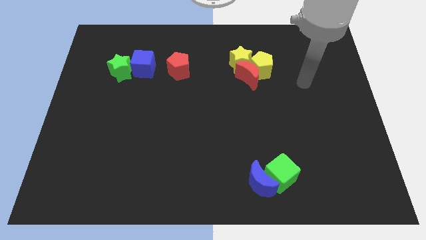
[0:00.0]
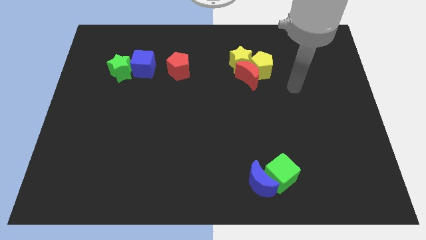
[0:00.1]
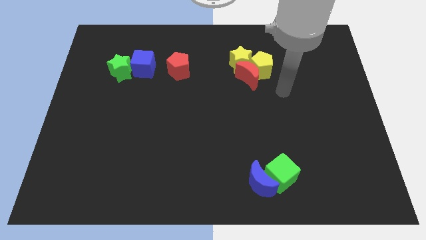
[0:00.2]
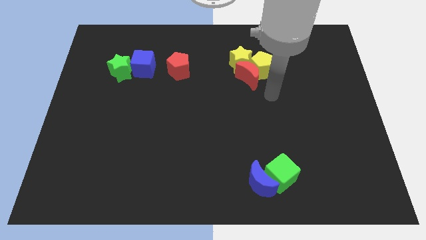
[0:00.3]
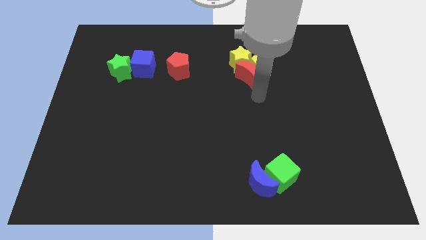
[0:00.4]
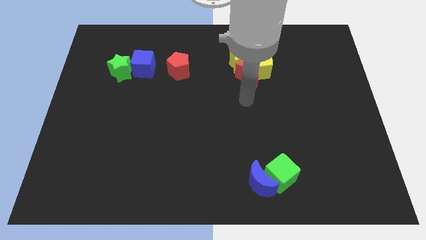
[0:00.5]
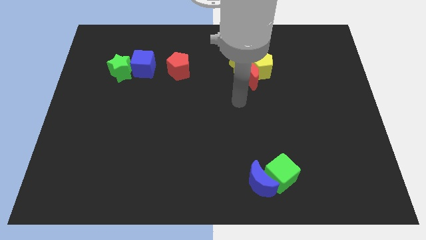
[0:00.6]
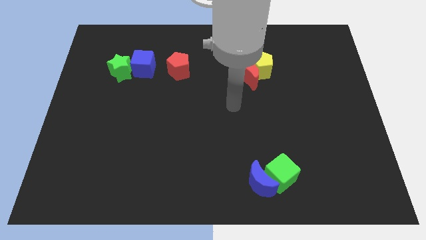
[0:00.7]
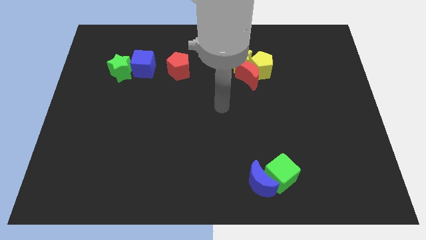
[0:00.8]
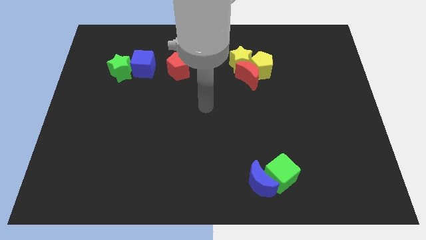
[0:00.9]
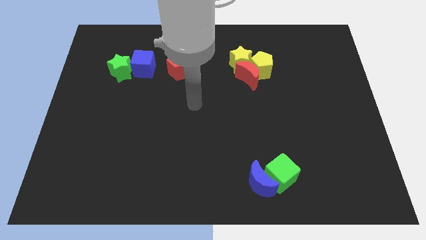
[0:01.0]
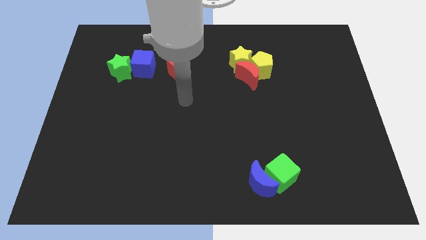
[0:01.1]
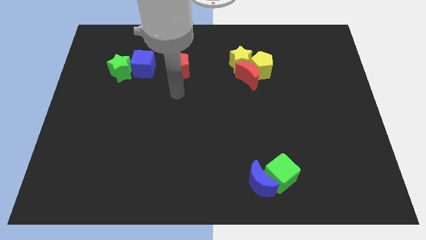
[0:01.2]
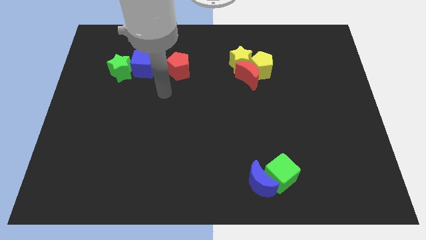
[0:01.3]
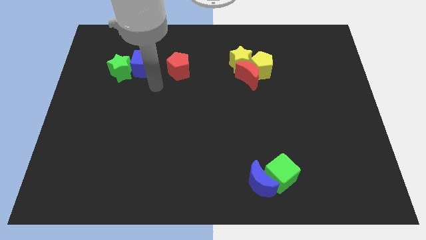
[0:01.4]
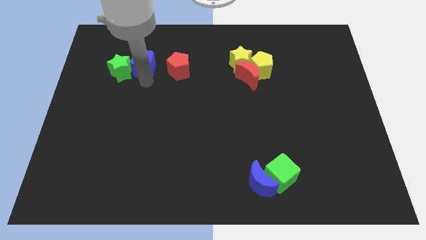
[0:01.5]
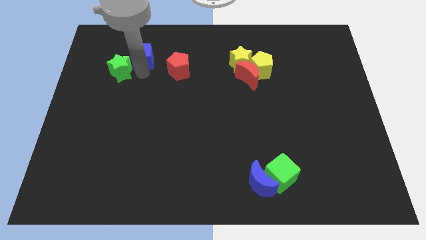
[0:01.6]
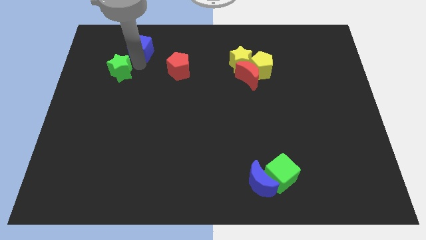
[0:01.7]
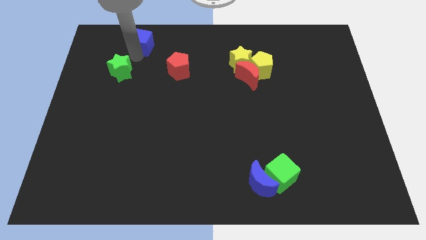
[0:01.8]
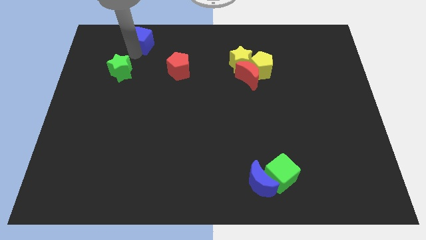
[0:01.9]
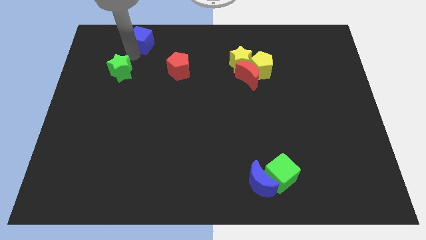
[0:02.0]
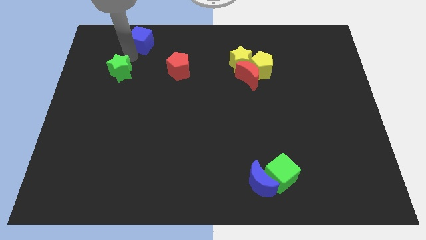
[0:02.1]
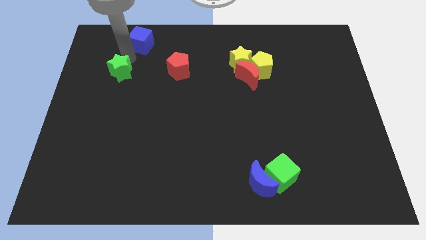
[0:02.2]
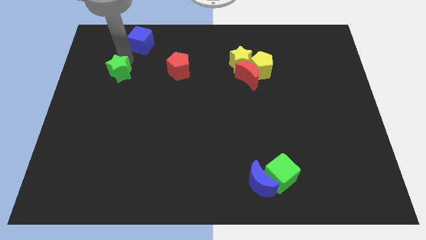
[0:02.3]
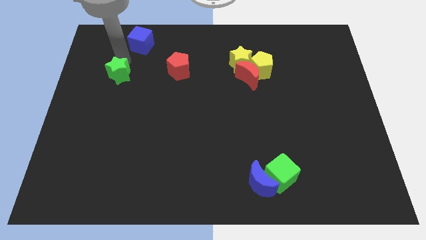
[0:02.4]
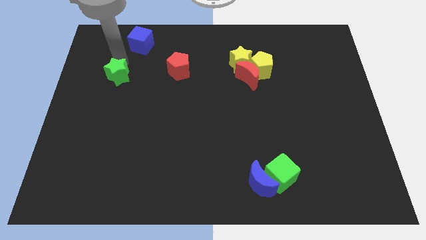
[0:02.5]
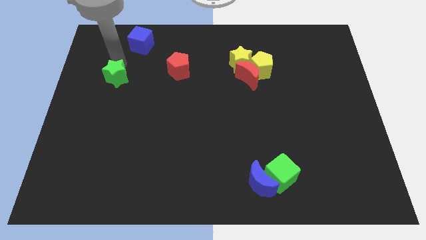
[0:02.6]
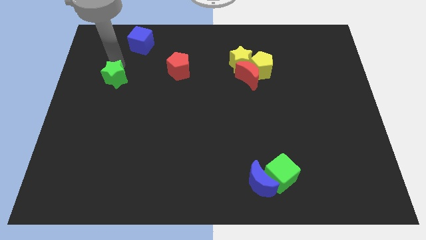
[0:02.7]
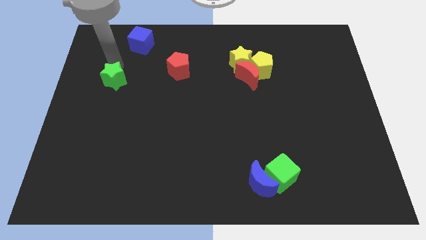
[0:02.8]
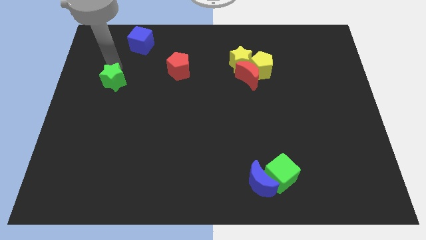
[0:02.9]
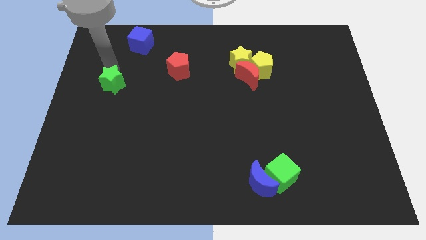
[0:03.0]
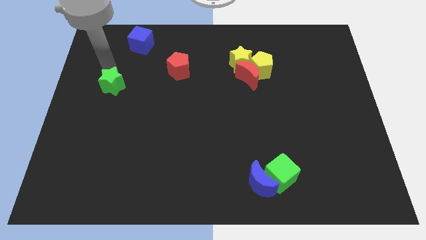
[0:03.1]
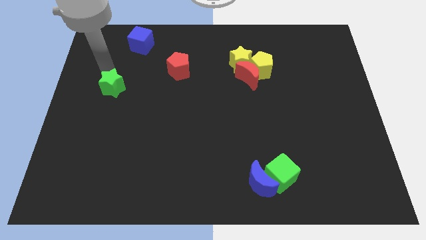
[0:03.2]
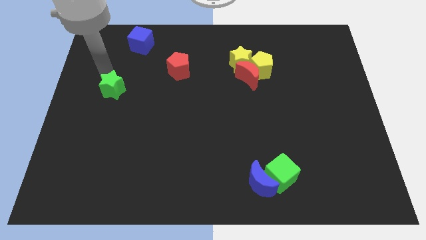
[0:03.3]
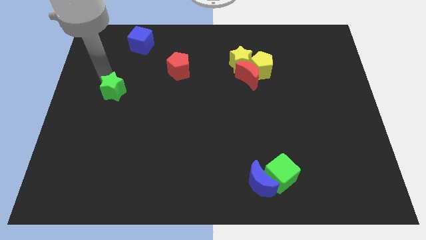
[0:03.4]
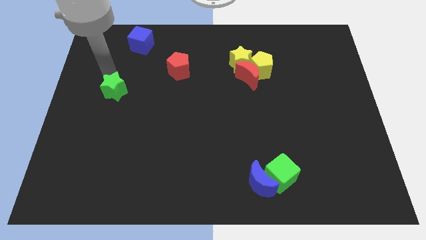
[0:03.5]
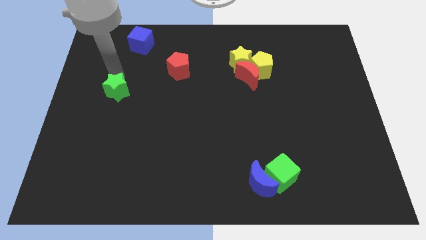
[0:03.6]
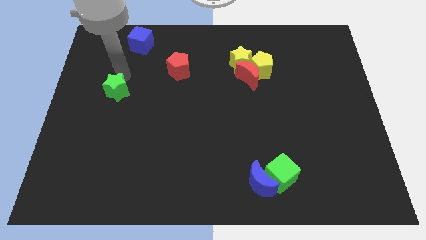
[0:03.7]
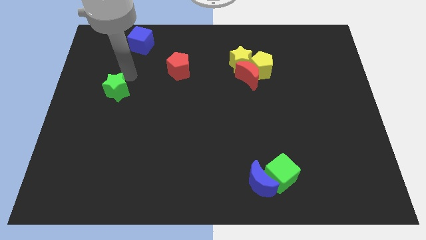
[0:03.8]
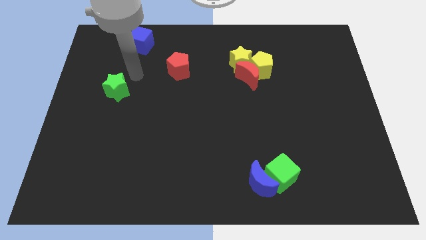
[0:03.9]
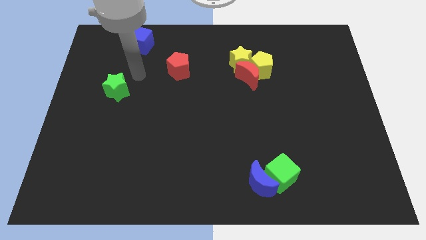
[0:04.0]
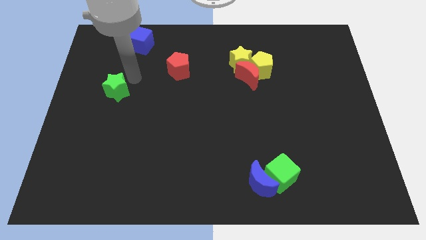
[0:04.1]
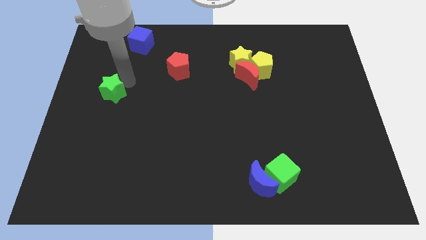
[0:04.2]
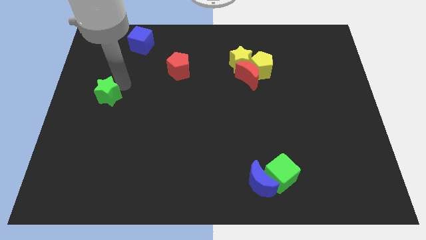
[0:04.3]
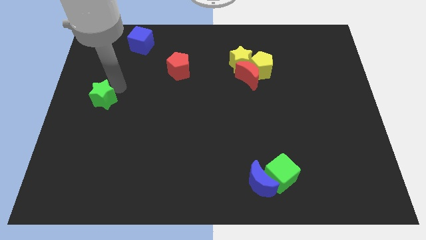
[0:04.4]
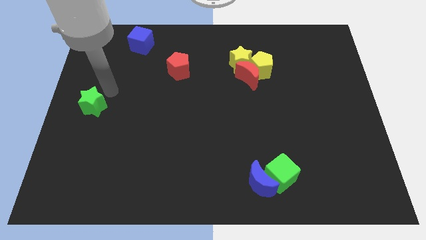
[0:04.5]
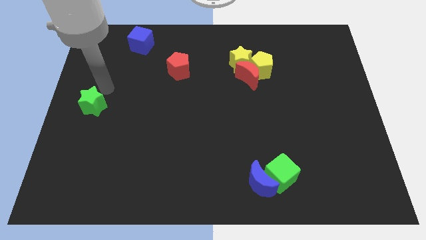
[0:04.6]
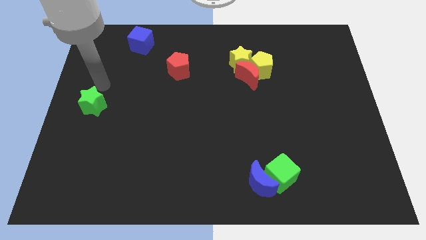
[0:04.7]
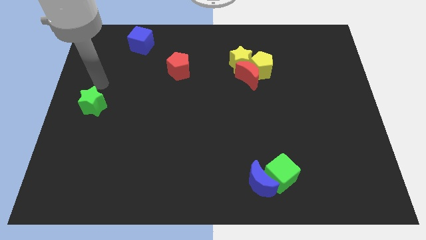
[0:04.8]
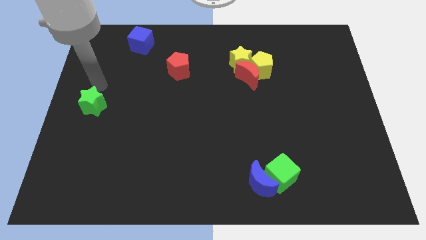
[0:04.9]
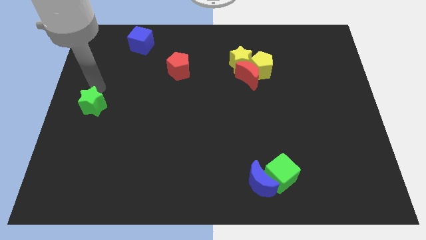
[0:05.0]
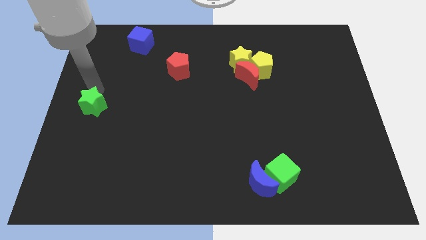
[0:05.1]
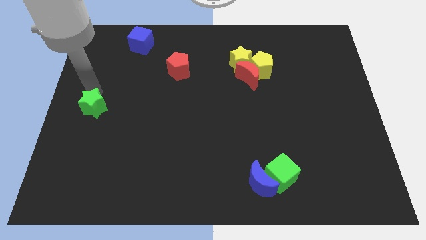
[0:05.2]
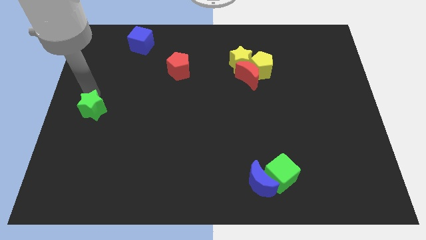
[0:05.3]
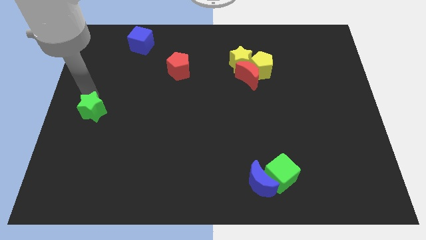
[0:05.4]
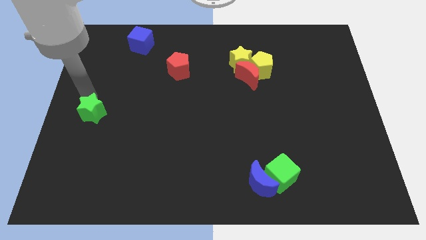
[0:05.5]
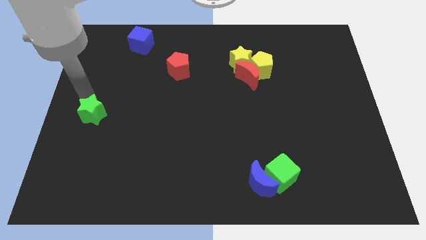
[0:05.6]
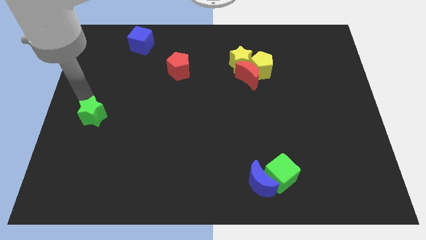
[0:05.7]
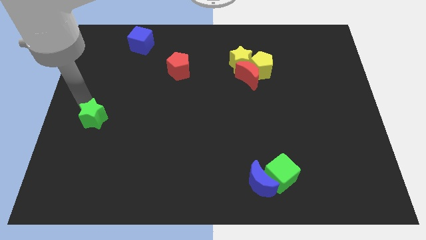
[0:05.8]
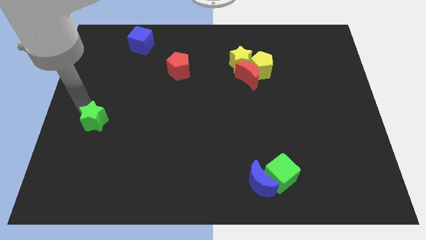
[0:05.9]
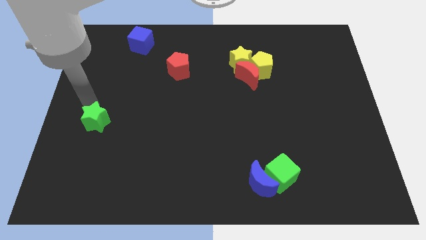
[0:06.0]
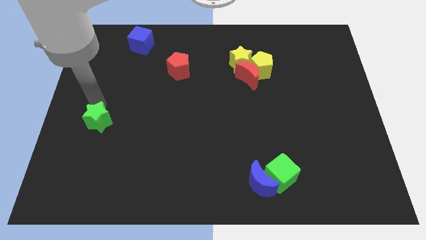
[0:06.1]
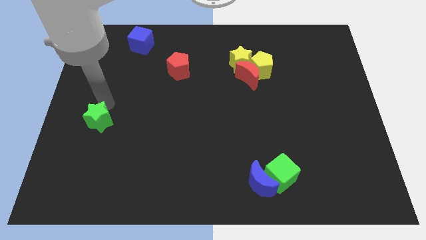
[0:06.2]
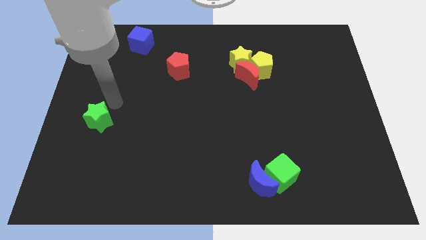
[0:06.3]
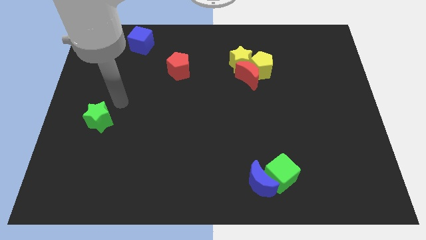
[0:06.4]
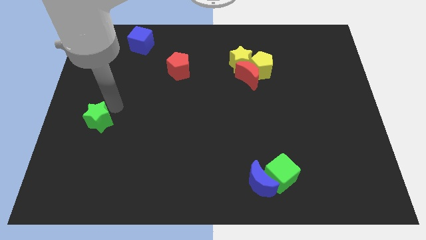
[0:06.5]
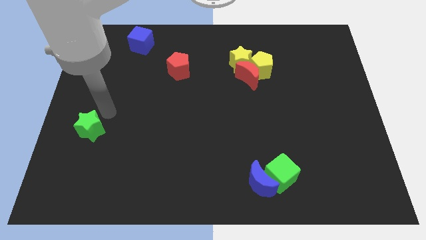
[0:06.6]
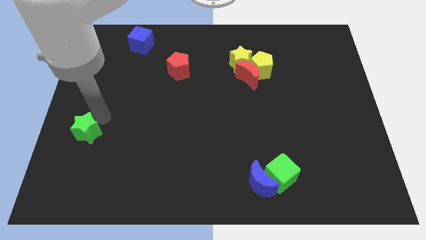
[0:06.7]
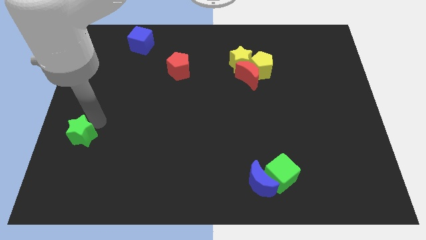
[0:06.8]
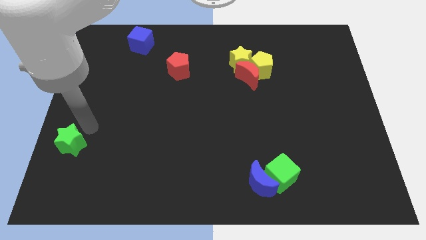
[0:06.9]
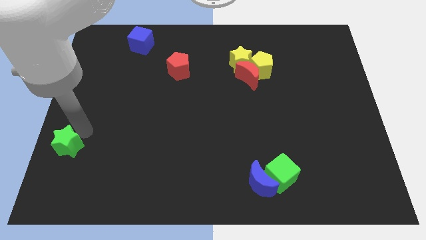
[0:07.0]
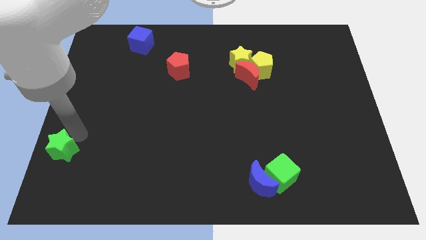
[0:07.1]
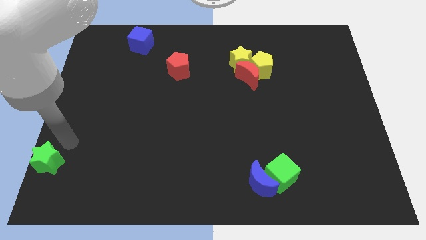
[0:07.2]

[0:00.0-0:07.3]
put the green star to the bottom left
